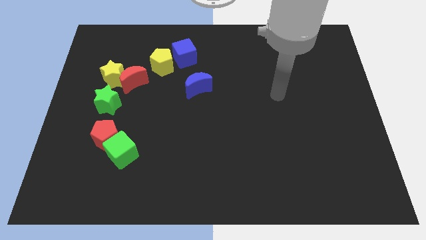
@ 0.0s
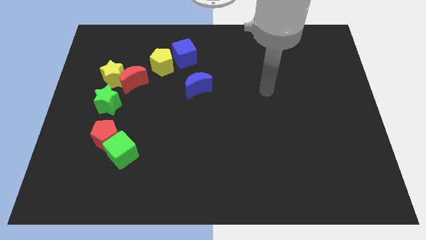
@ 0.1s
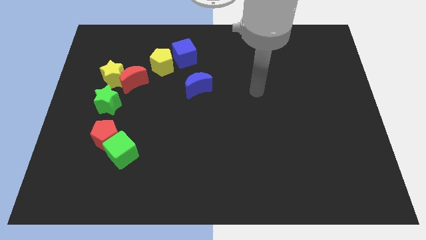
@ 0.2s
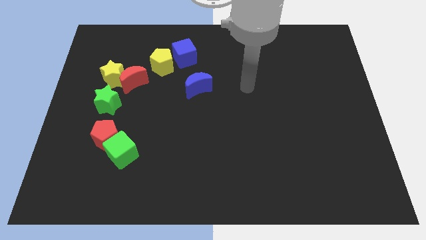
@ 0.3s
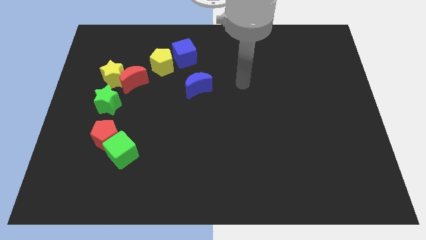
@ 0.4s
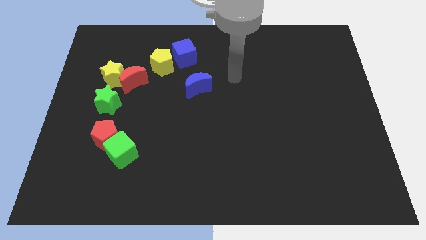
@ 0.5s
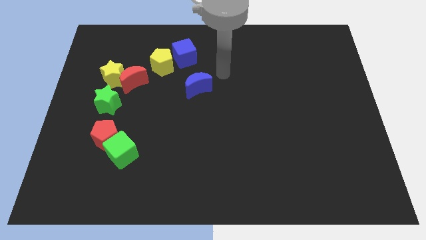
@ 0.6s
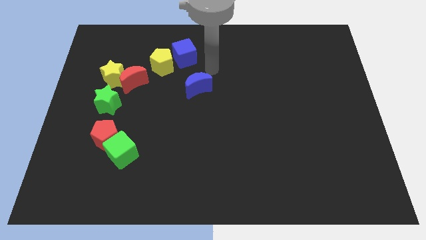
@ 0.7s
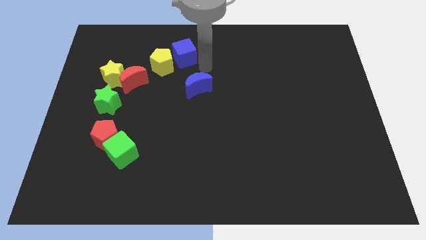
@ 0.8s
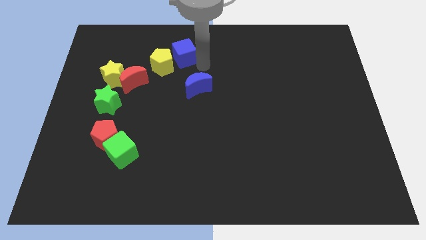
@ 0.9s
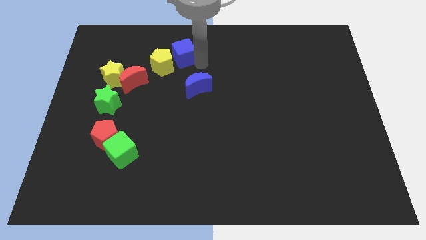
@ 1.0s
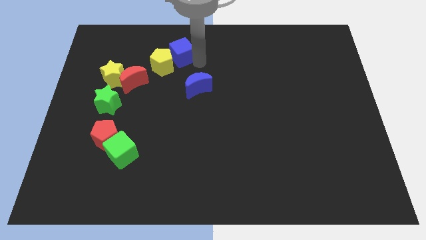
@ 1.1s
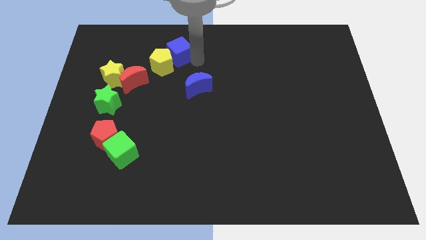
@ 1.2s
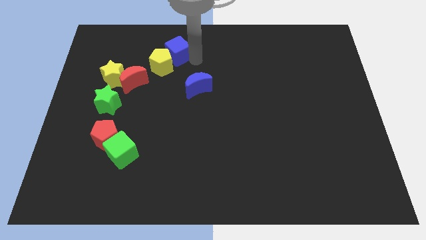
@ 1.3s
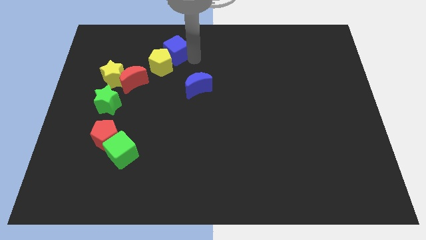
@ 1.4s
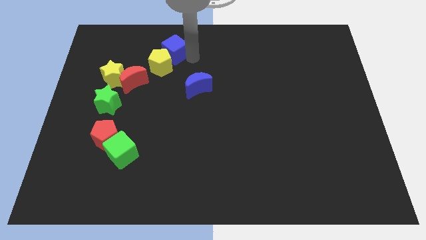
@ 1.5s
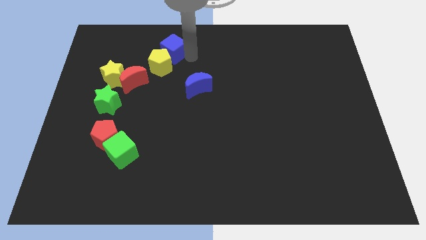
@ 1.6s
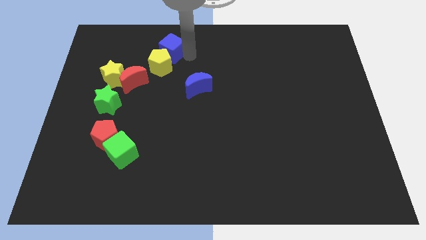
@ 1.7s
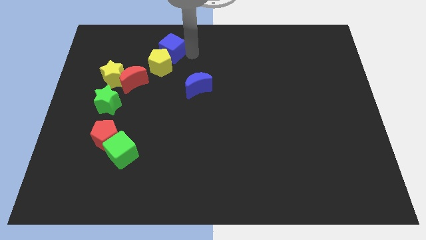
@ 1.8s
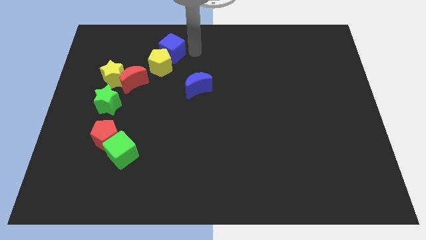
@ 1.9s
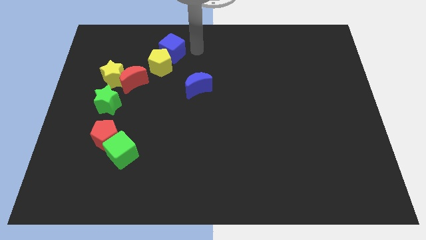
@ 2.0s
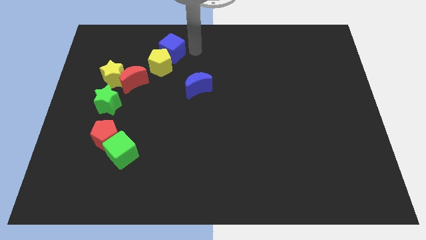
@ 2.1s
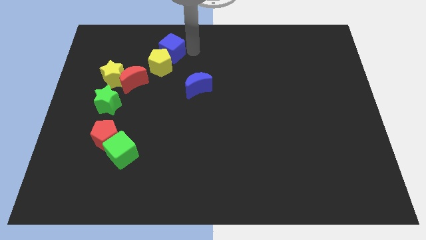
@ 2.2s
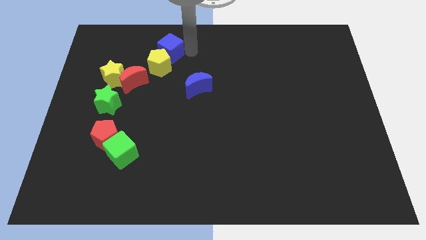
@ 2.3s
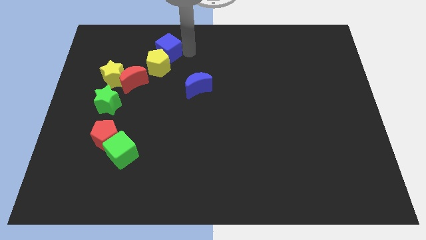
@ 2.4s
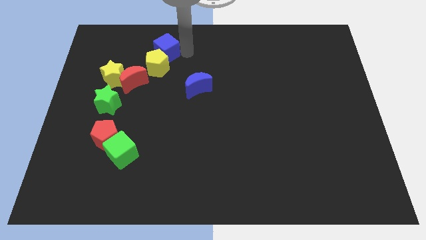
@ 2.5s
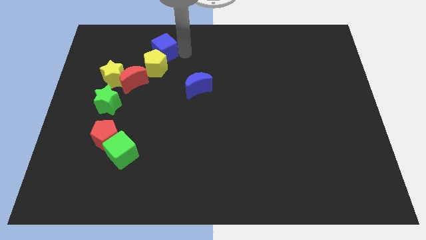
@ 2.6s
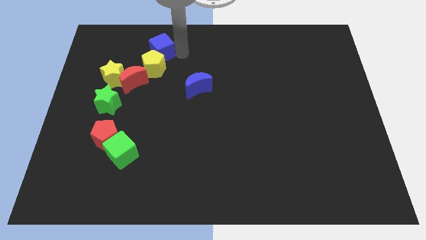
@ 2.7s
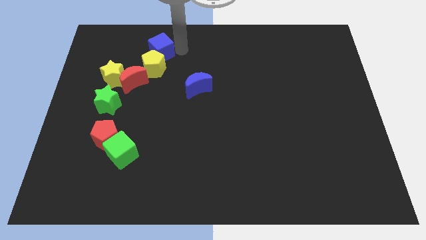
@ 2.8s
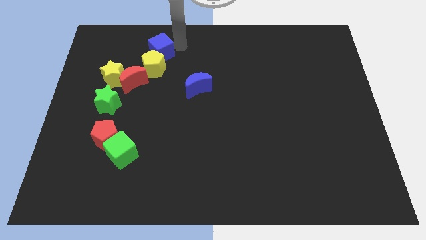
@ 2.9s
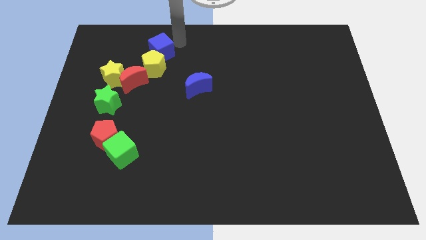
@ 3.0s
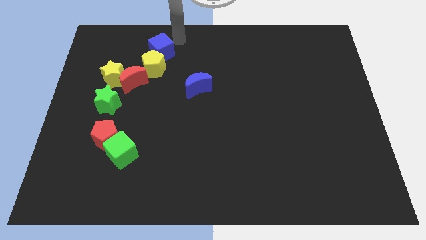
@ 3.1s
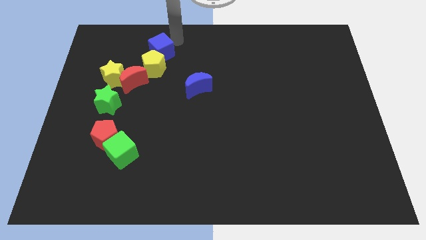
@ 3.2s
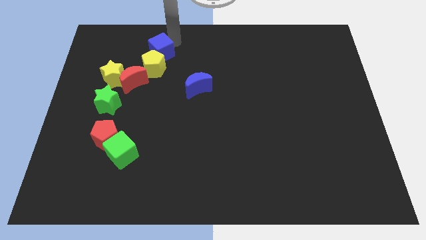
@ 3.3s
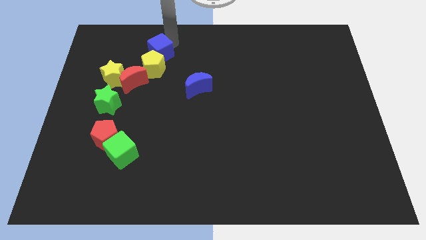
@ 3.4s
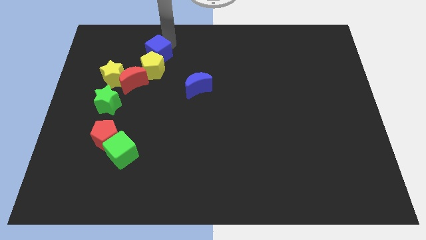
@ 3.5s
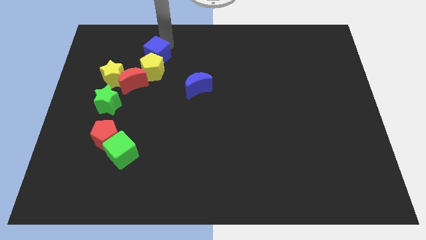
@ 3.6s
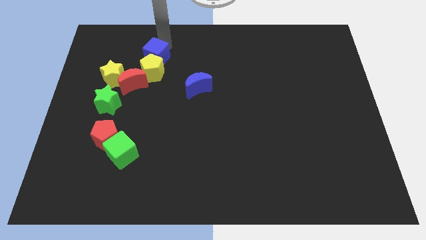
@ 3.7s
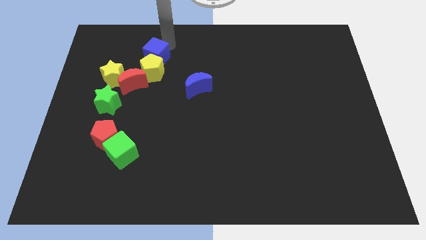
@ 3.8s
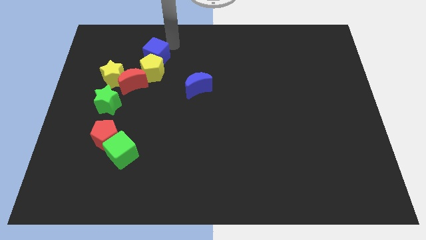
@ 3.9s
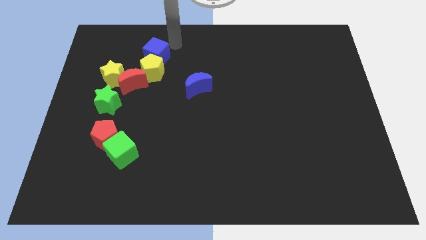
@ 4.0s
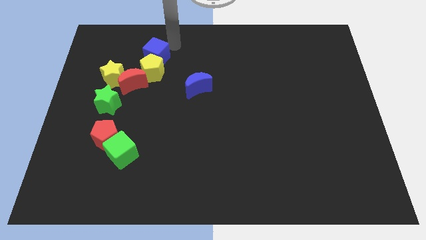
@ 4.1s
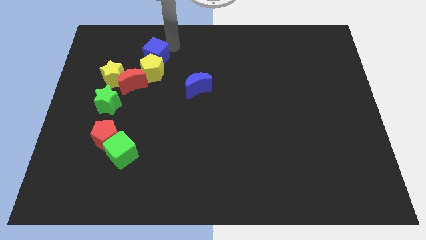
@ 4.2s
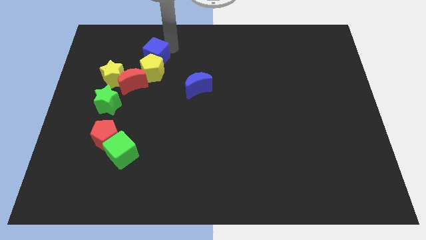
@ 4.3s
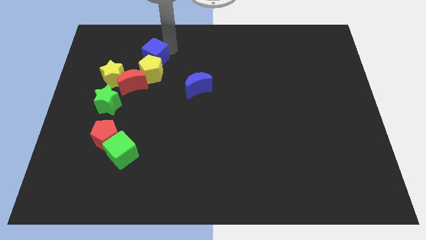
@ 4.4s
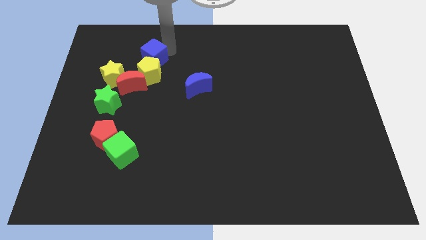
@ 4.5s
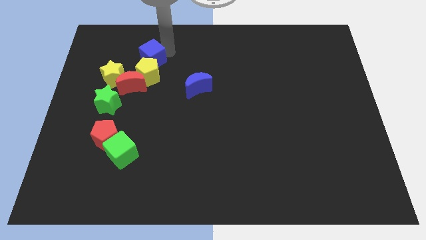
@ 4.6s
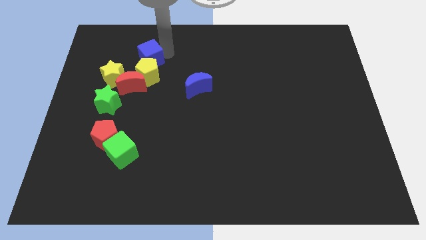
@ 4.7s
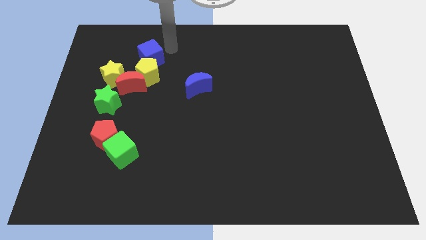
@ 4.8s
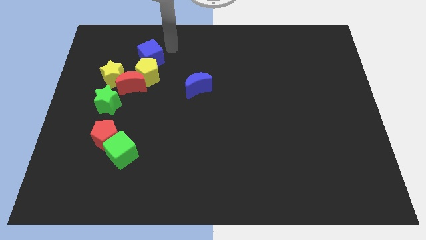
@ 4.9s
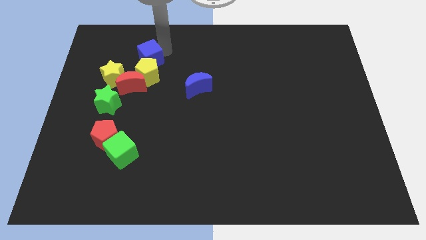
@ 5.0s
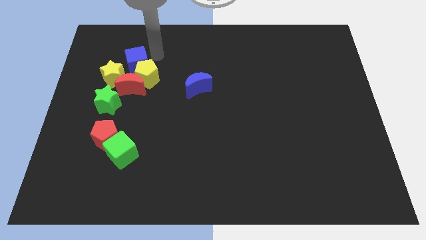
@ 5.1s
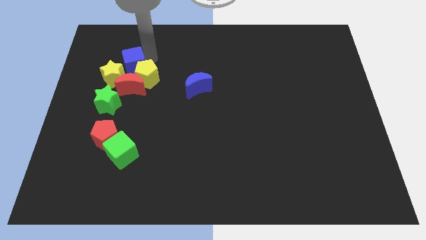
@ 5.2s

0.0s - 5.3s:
put the blue cube to the yellow star

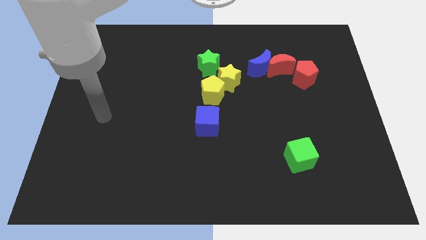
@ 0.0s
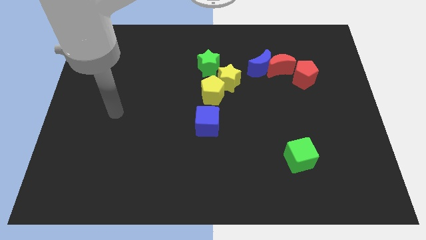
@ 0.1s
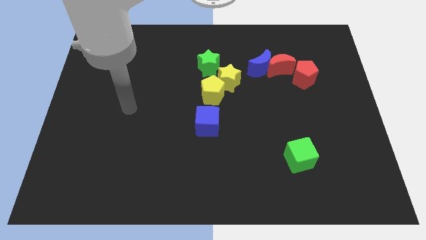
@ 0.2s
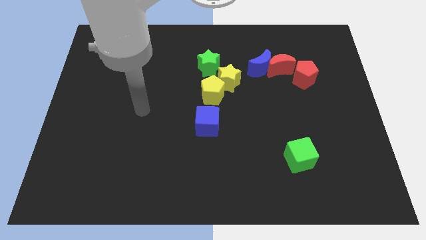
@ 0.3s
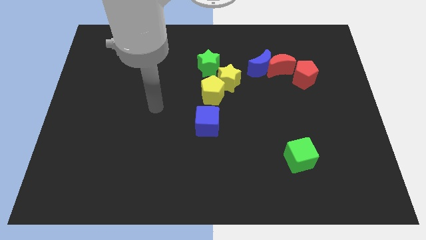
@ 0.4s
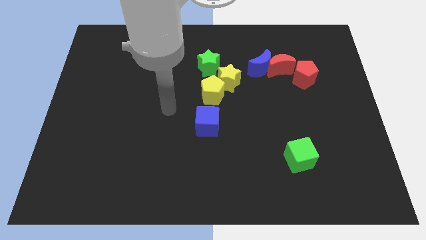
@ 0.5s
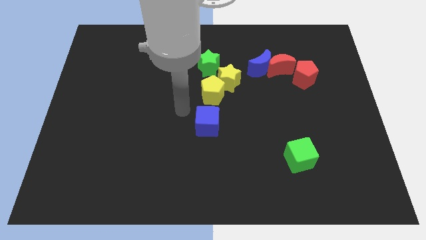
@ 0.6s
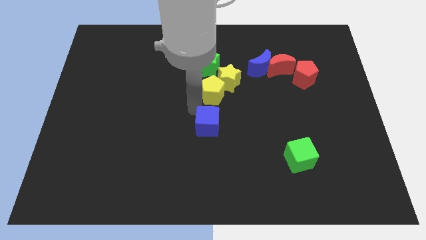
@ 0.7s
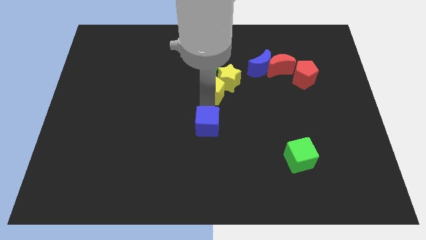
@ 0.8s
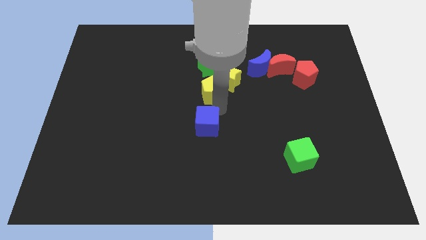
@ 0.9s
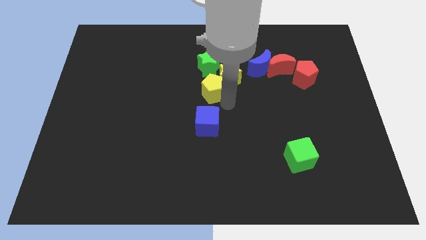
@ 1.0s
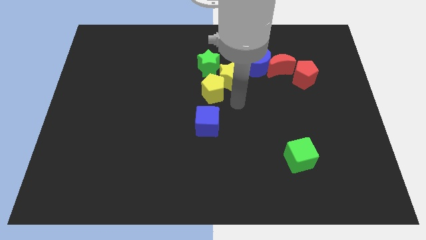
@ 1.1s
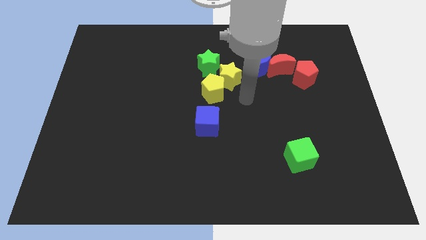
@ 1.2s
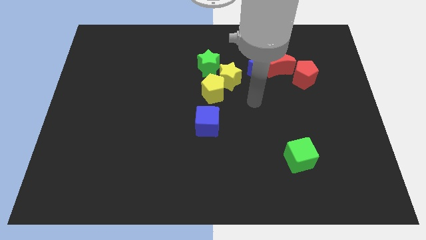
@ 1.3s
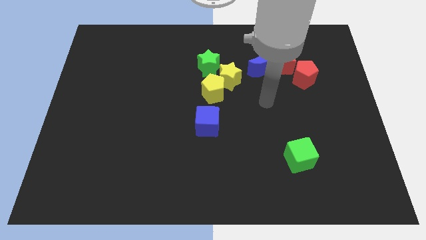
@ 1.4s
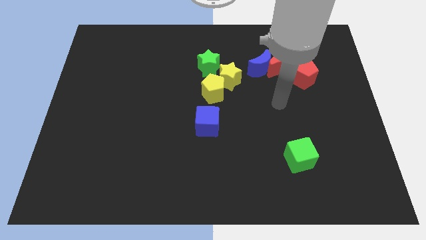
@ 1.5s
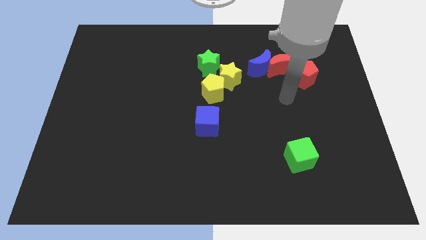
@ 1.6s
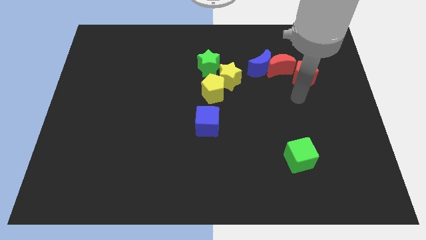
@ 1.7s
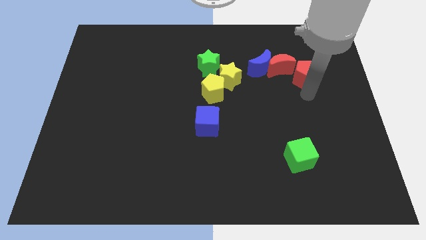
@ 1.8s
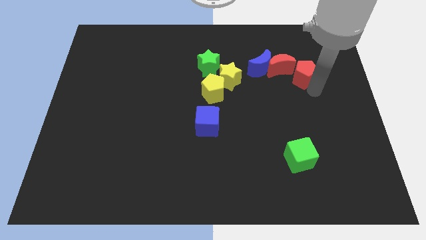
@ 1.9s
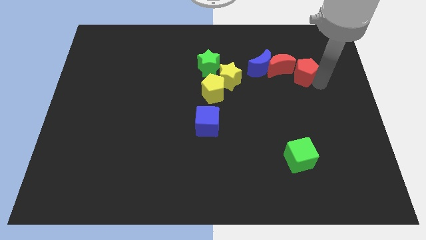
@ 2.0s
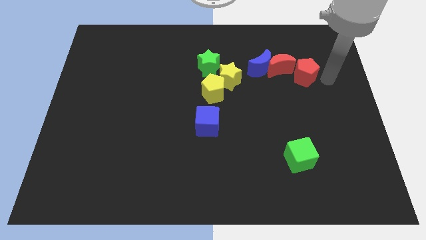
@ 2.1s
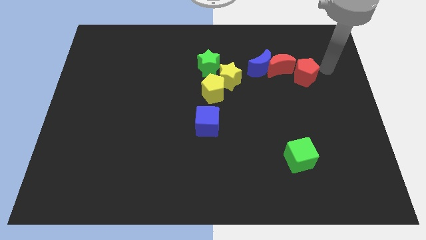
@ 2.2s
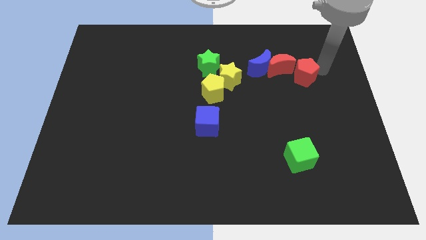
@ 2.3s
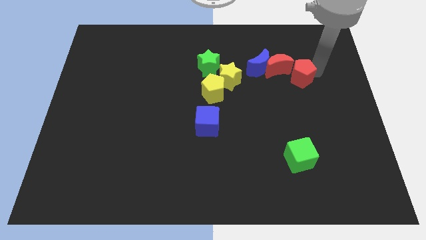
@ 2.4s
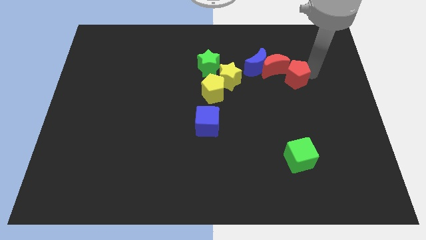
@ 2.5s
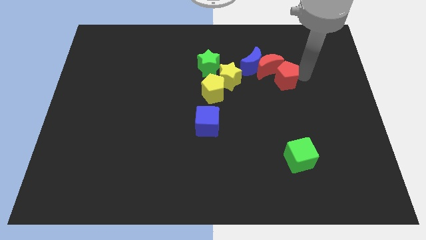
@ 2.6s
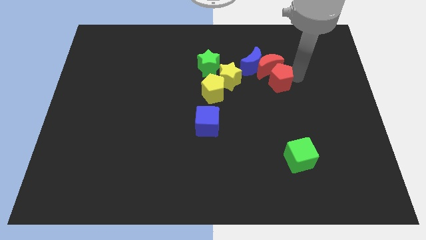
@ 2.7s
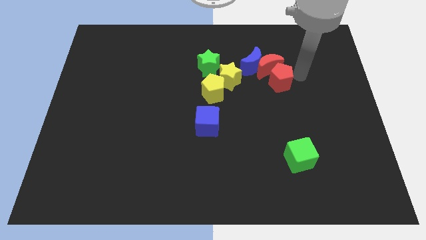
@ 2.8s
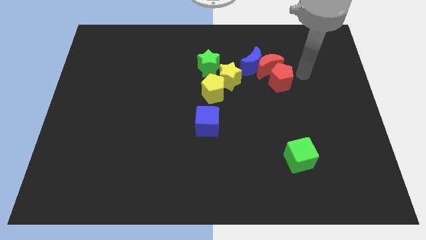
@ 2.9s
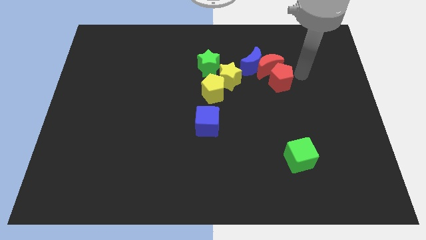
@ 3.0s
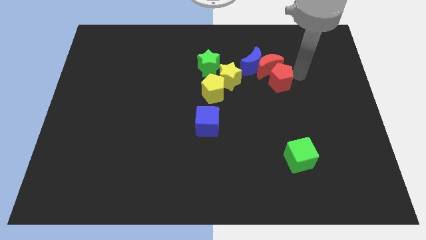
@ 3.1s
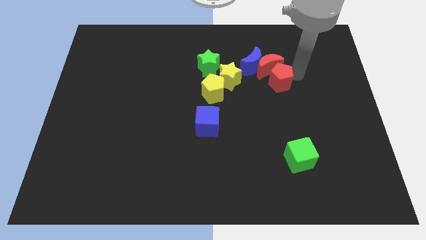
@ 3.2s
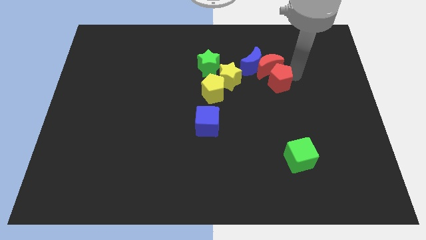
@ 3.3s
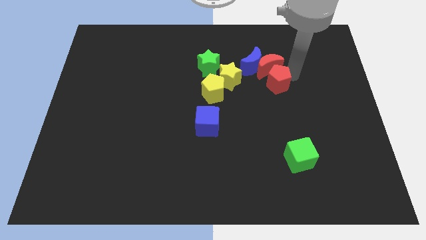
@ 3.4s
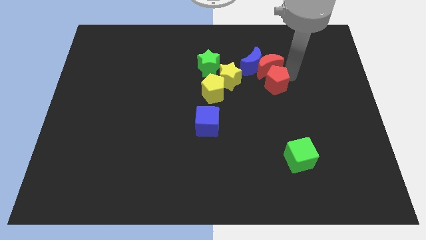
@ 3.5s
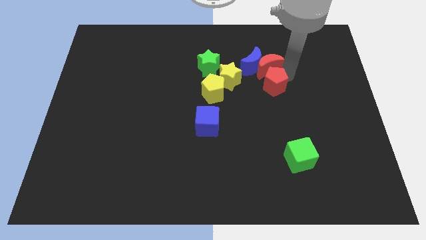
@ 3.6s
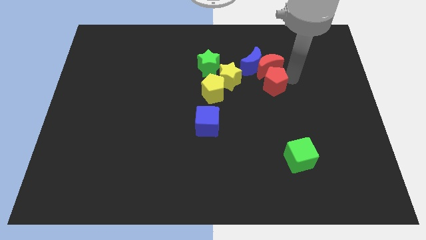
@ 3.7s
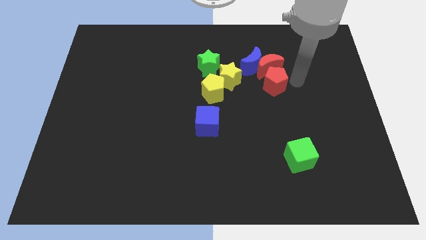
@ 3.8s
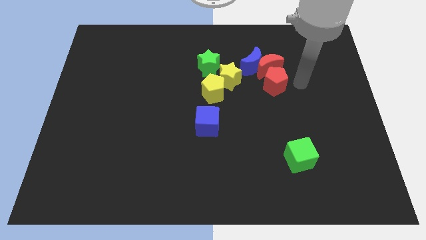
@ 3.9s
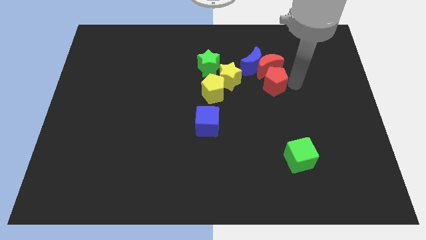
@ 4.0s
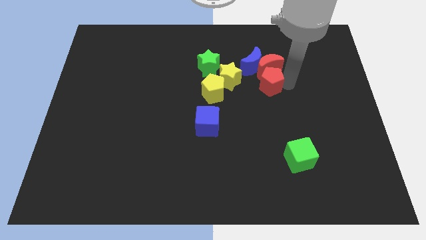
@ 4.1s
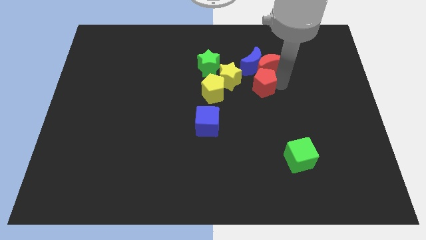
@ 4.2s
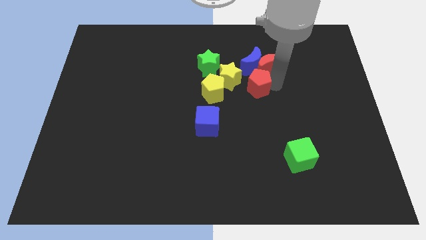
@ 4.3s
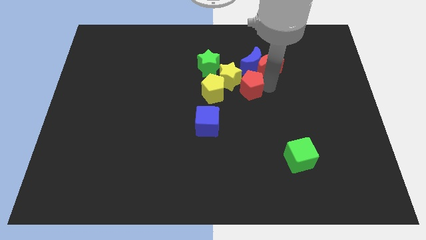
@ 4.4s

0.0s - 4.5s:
slide the red pentagon towards the yellow star
